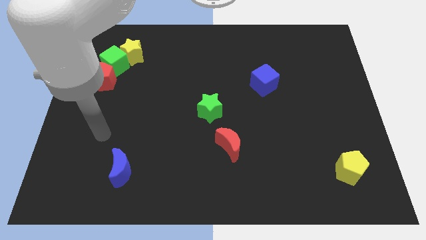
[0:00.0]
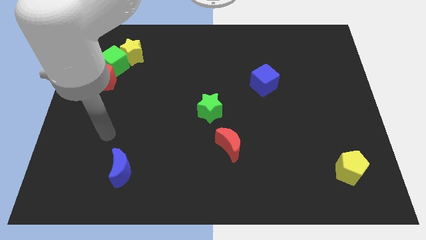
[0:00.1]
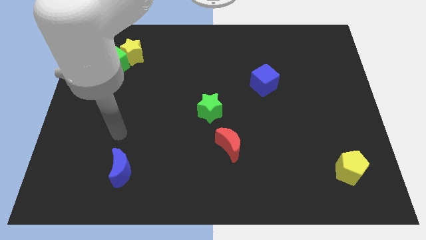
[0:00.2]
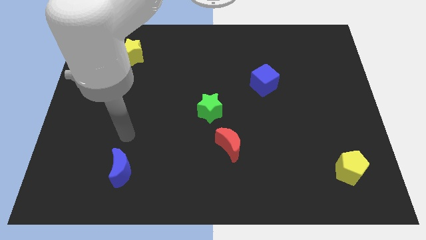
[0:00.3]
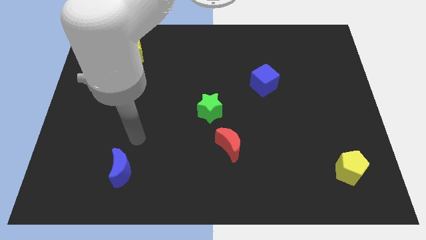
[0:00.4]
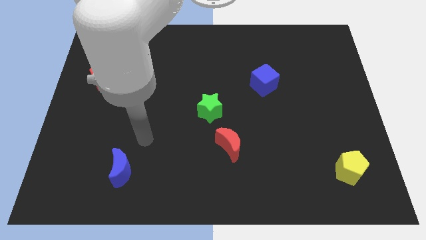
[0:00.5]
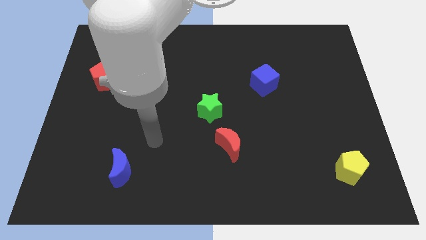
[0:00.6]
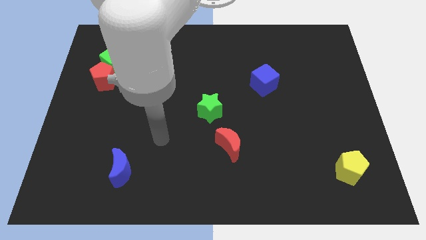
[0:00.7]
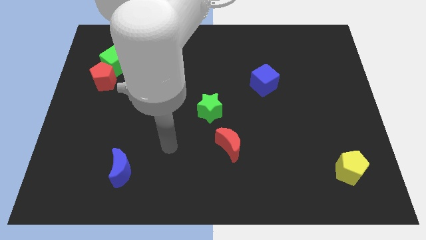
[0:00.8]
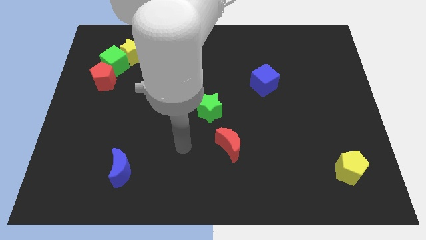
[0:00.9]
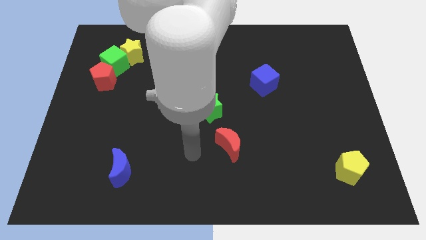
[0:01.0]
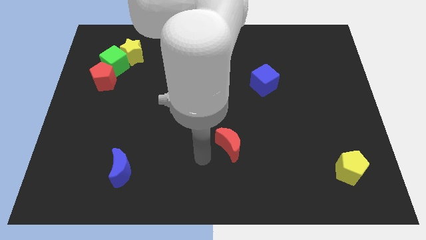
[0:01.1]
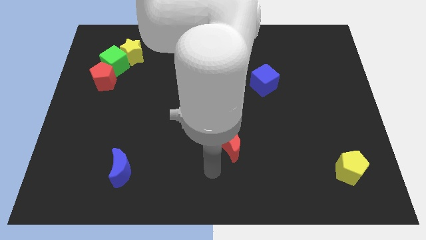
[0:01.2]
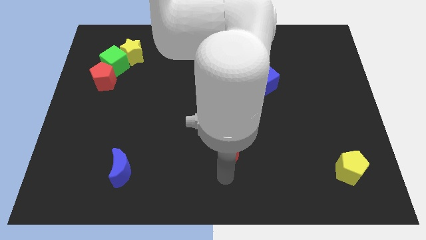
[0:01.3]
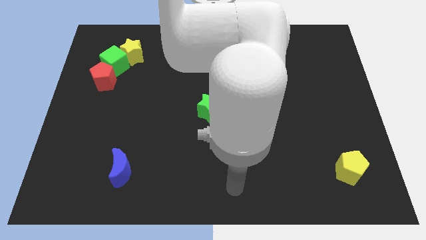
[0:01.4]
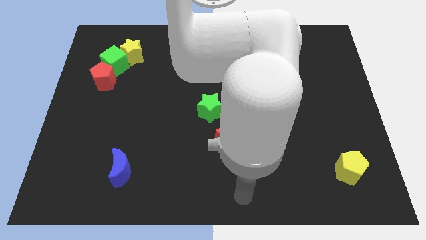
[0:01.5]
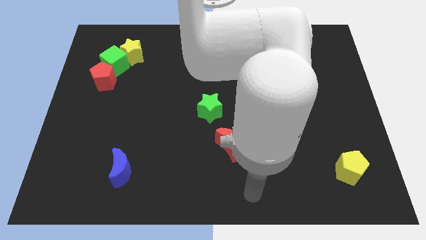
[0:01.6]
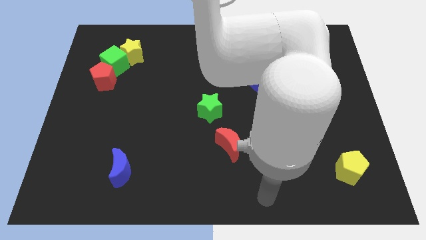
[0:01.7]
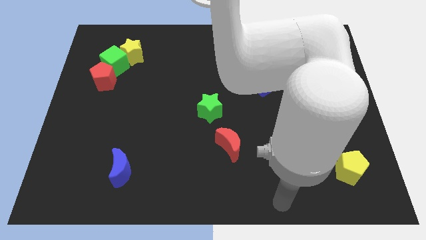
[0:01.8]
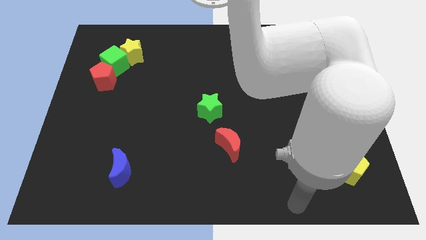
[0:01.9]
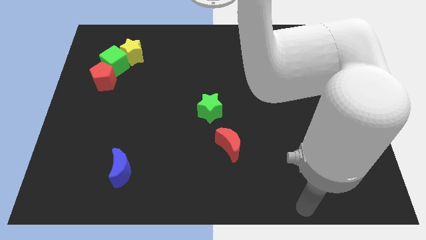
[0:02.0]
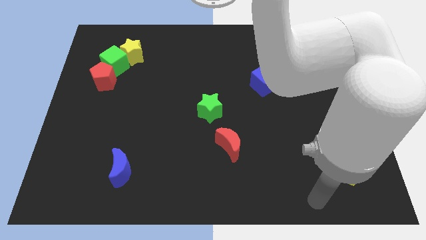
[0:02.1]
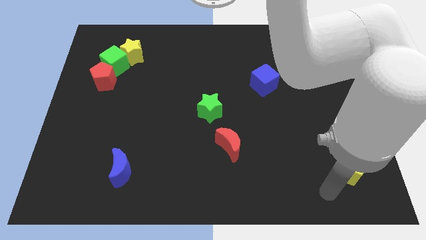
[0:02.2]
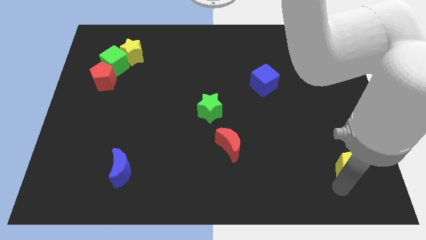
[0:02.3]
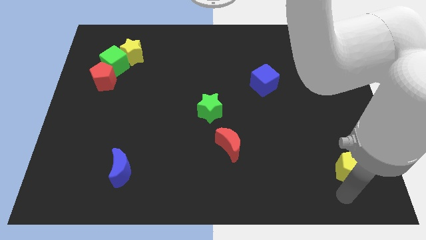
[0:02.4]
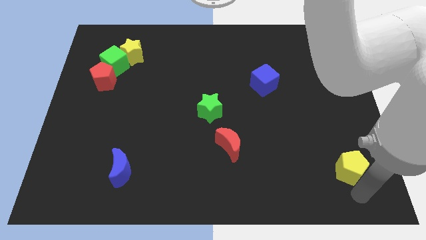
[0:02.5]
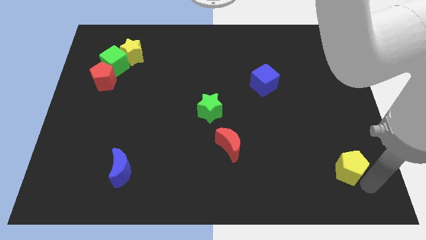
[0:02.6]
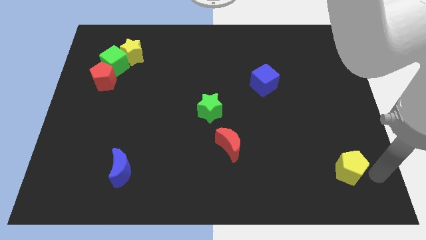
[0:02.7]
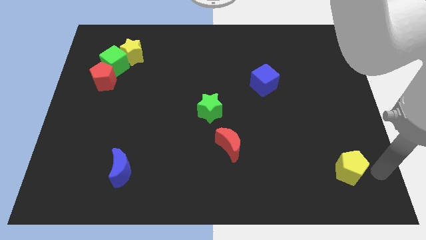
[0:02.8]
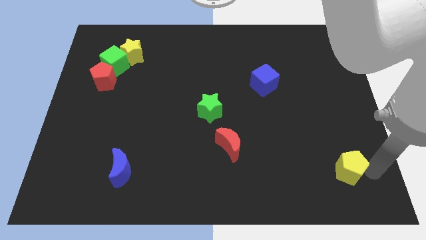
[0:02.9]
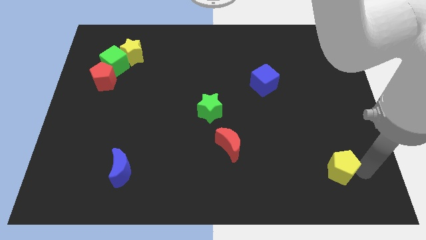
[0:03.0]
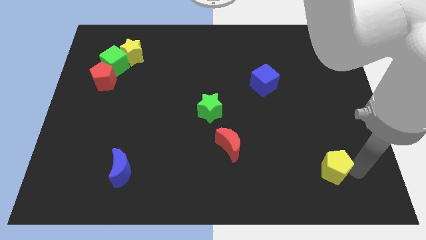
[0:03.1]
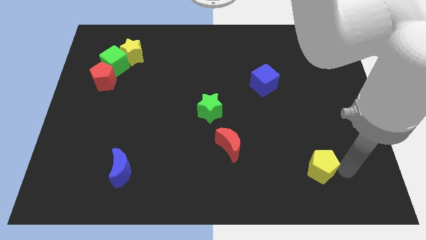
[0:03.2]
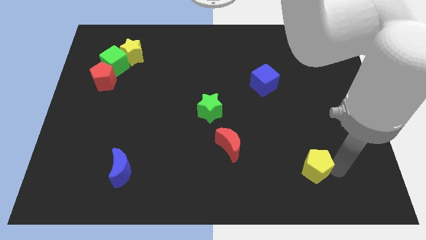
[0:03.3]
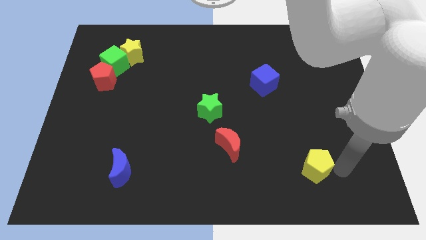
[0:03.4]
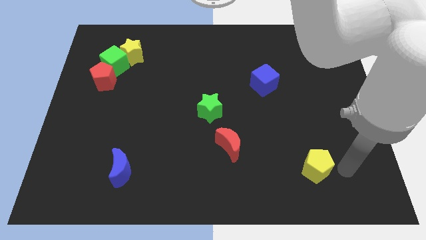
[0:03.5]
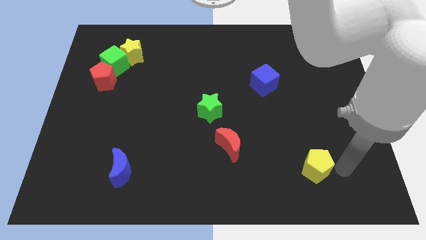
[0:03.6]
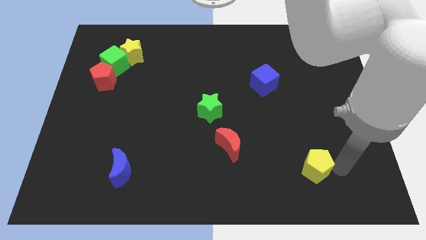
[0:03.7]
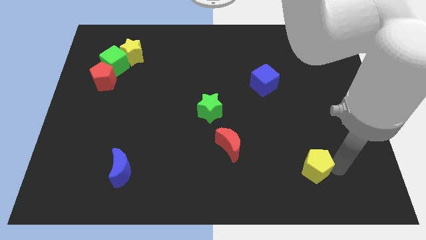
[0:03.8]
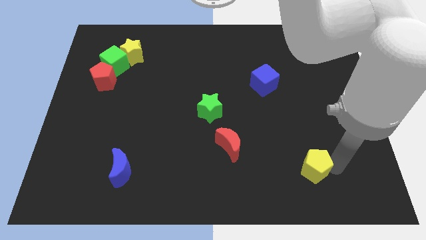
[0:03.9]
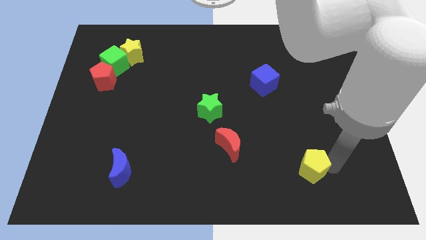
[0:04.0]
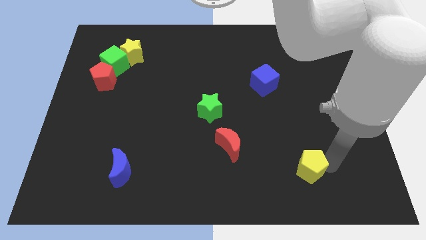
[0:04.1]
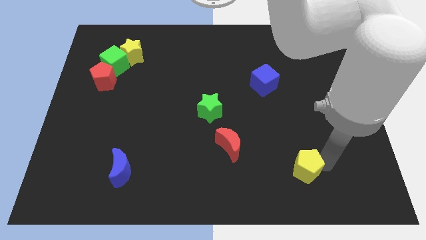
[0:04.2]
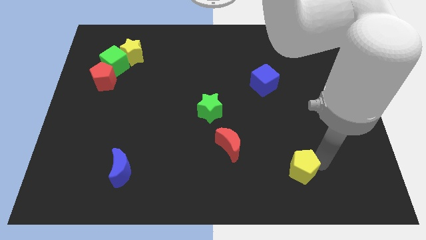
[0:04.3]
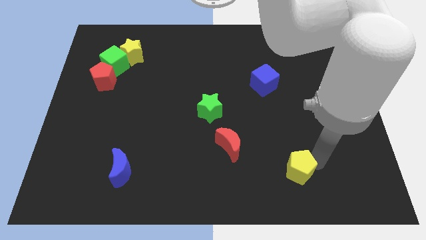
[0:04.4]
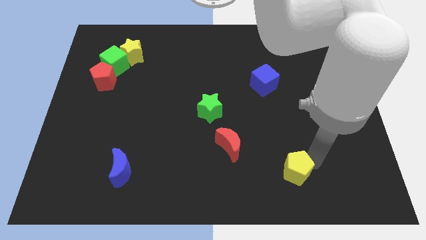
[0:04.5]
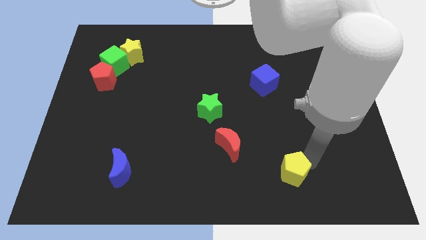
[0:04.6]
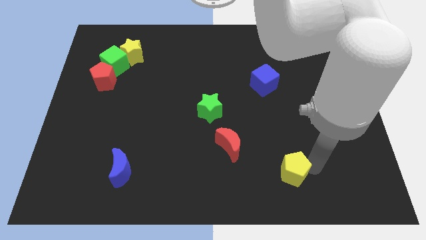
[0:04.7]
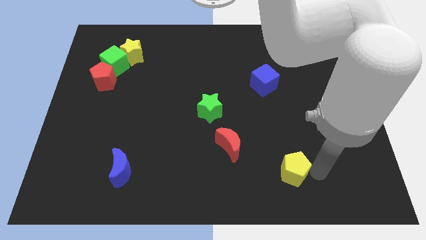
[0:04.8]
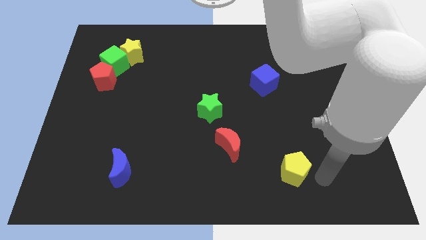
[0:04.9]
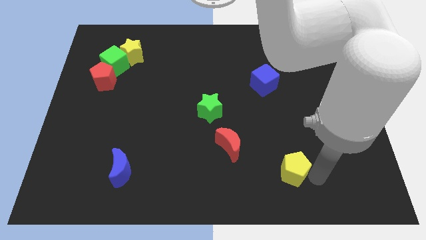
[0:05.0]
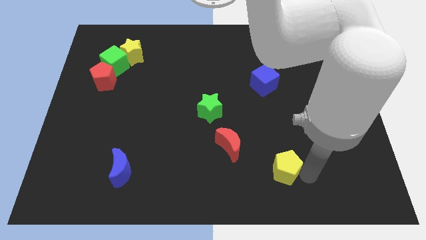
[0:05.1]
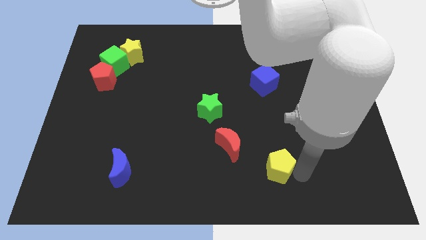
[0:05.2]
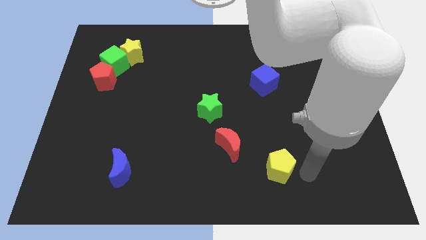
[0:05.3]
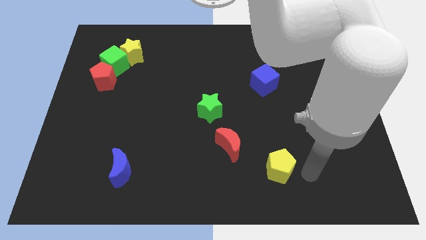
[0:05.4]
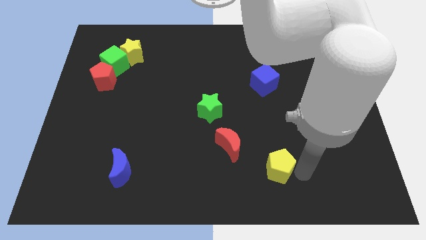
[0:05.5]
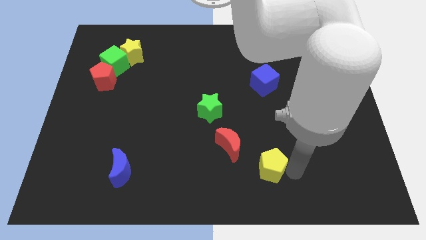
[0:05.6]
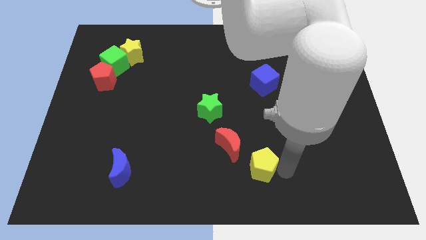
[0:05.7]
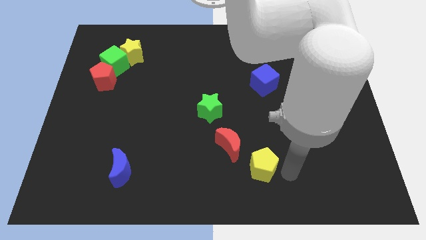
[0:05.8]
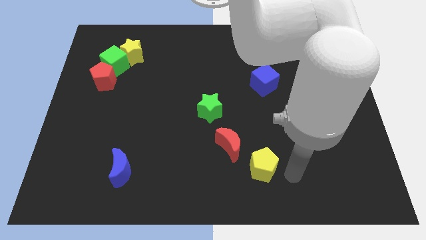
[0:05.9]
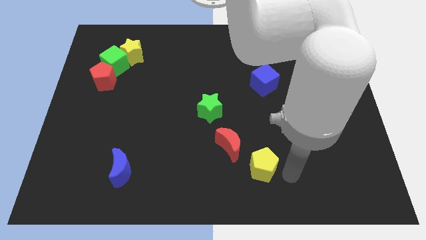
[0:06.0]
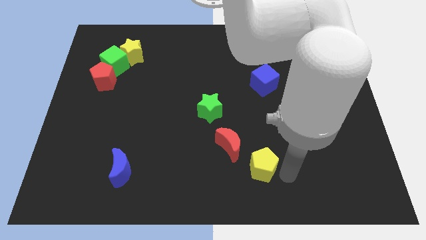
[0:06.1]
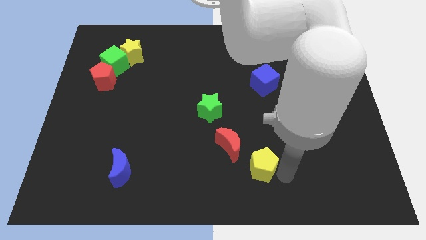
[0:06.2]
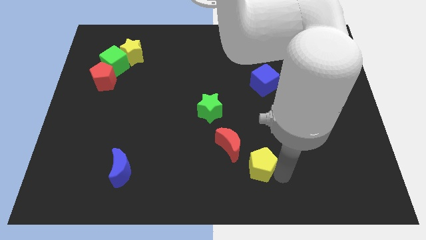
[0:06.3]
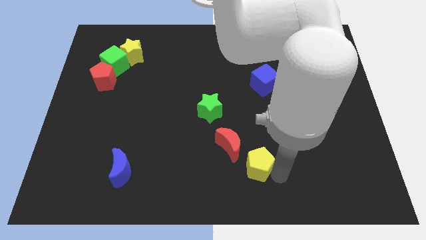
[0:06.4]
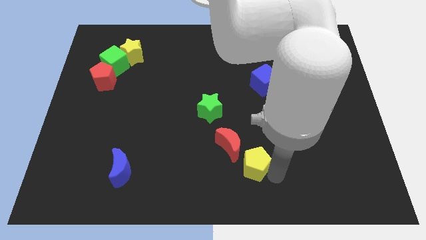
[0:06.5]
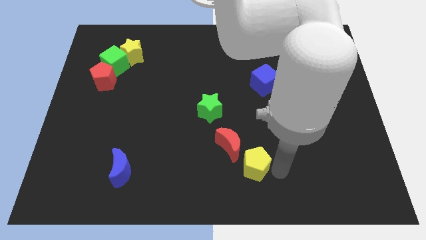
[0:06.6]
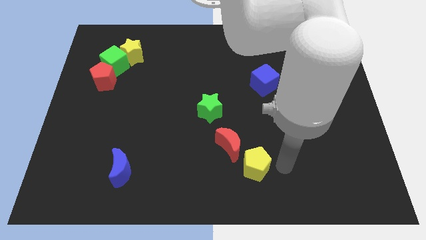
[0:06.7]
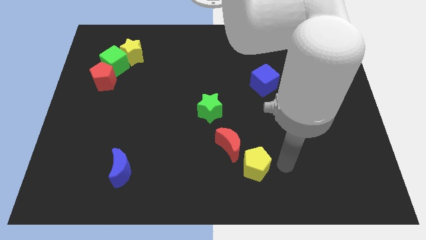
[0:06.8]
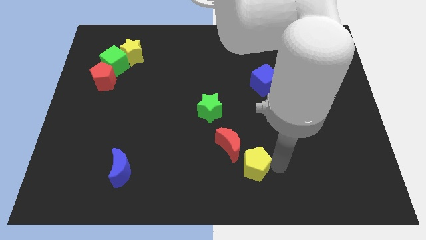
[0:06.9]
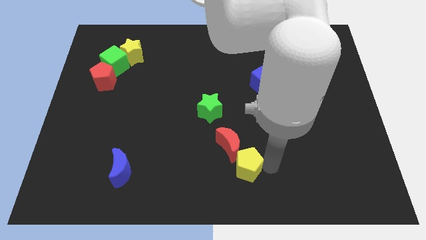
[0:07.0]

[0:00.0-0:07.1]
slide the yellow pentagon left

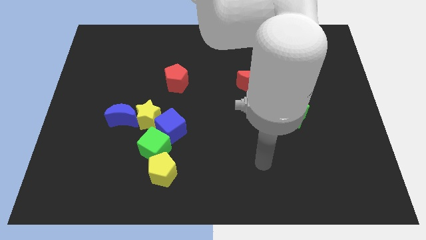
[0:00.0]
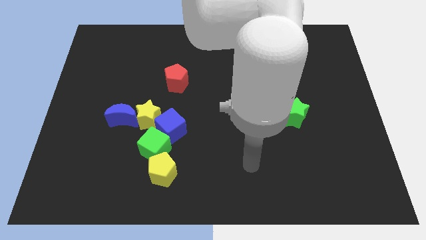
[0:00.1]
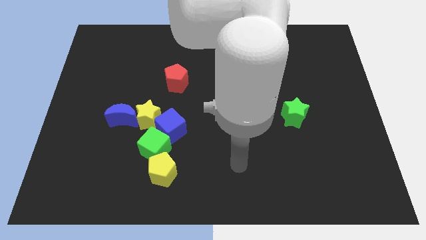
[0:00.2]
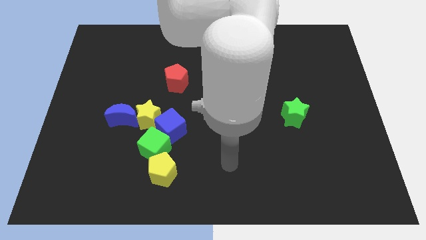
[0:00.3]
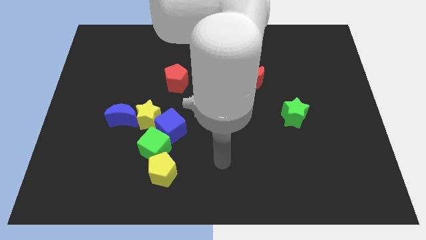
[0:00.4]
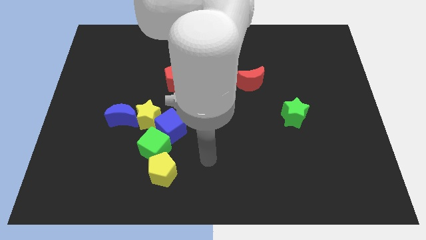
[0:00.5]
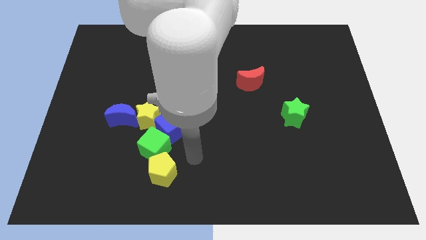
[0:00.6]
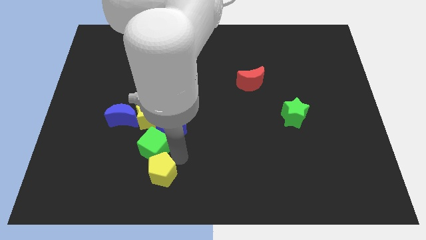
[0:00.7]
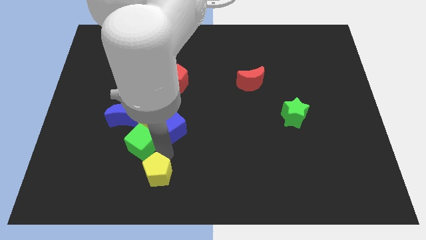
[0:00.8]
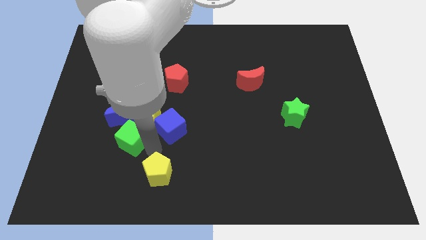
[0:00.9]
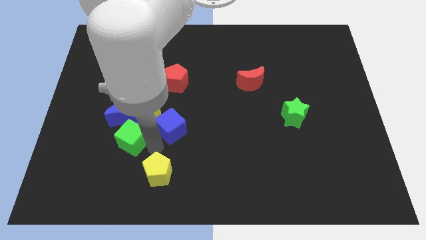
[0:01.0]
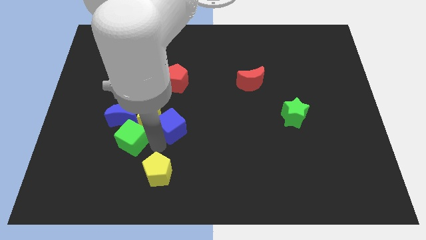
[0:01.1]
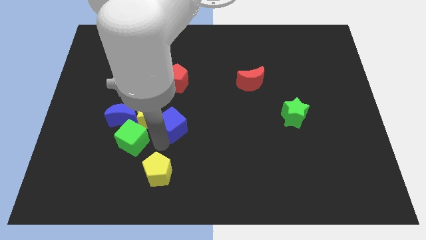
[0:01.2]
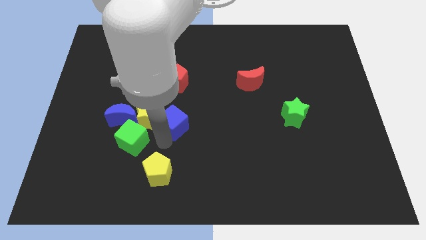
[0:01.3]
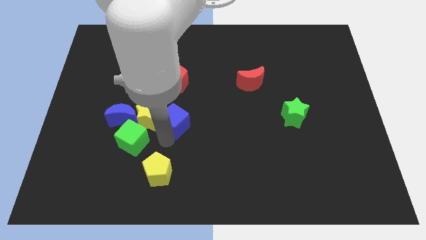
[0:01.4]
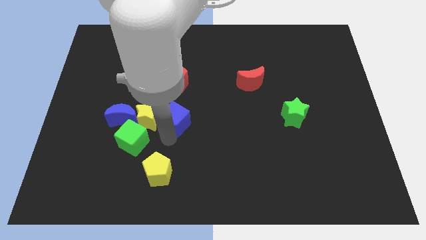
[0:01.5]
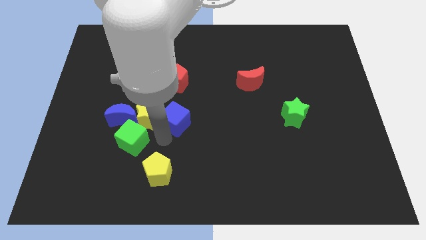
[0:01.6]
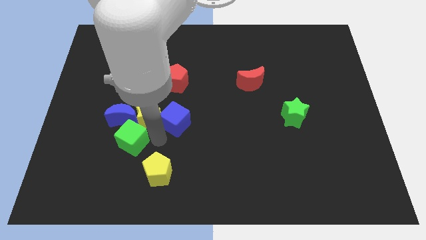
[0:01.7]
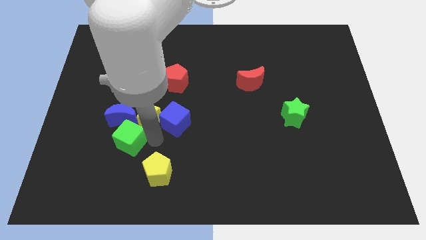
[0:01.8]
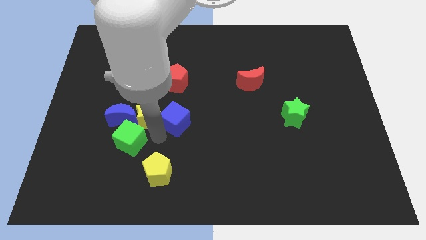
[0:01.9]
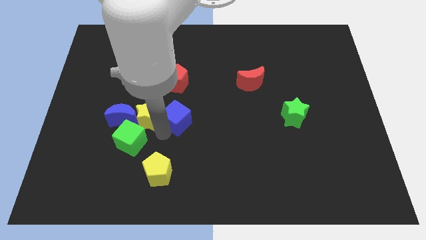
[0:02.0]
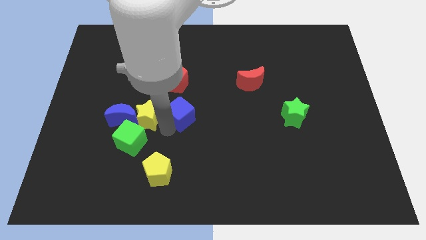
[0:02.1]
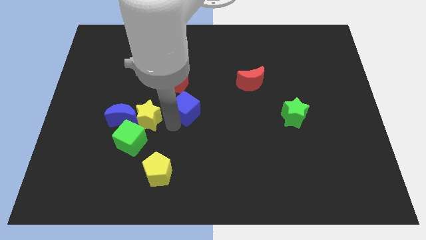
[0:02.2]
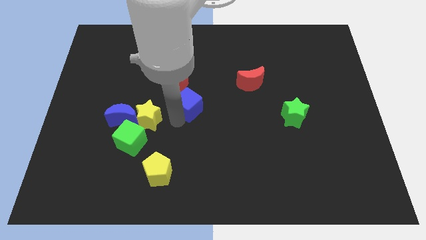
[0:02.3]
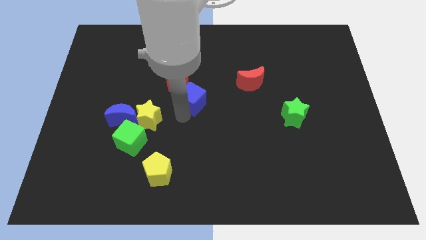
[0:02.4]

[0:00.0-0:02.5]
slide the blue cube a little bit upwards
